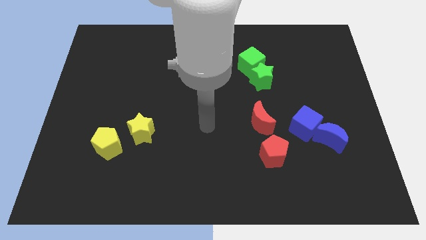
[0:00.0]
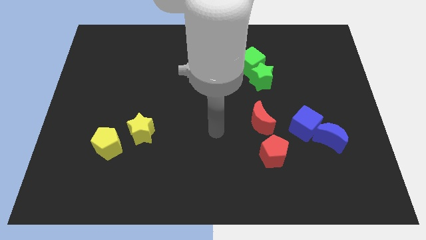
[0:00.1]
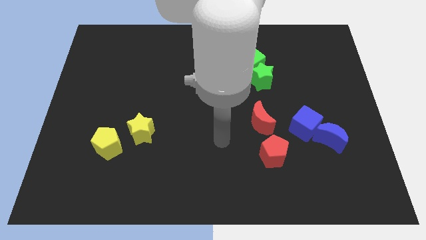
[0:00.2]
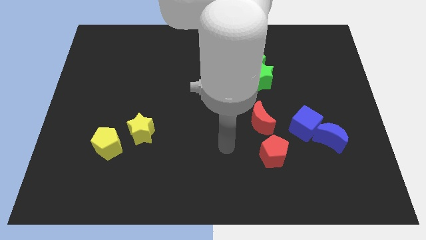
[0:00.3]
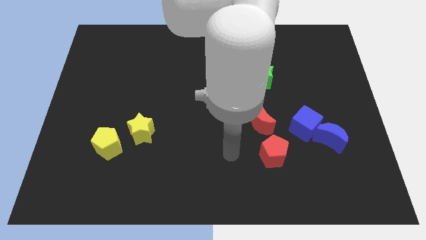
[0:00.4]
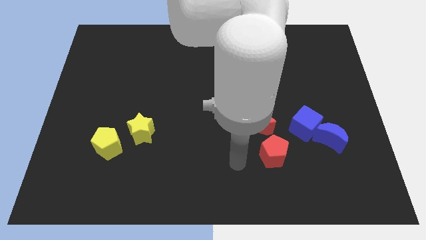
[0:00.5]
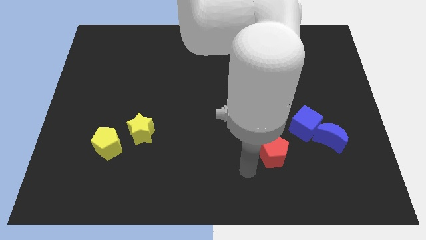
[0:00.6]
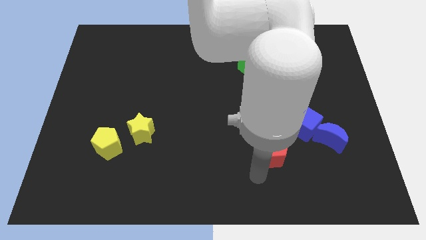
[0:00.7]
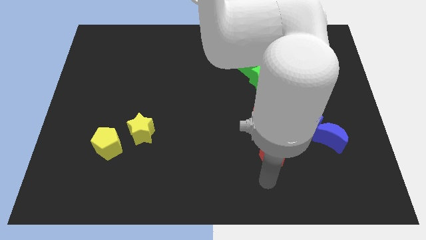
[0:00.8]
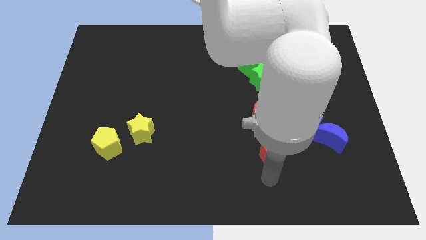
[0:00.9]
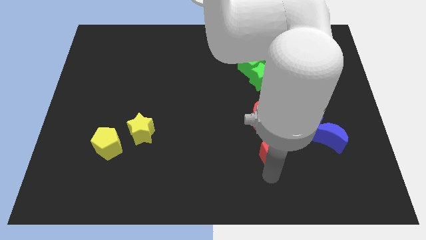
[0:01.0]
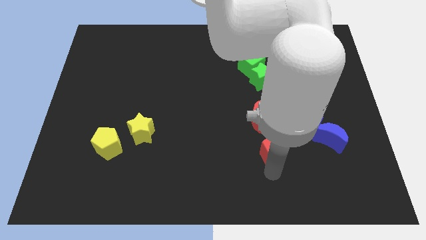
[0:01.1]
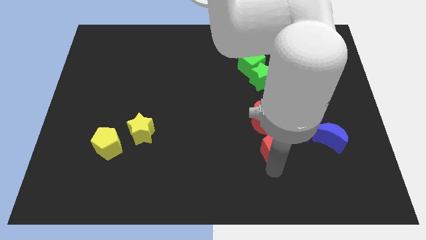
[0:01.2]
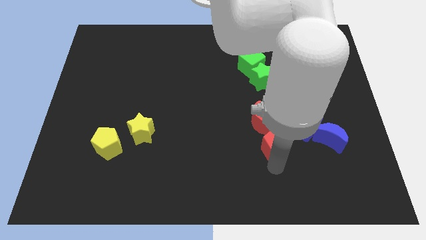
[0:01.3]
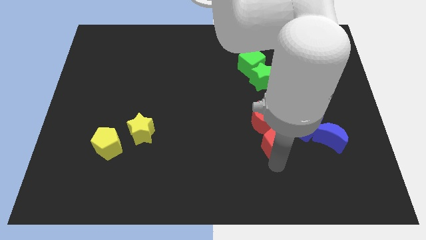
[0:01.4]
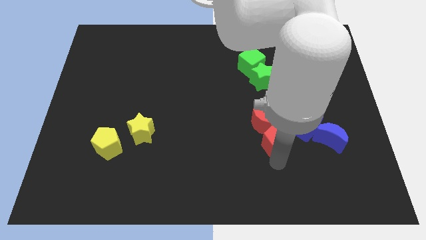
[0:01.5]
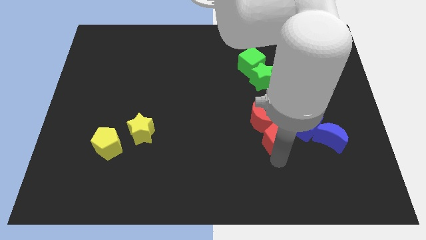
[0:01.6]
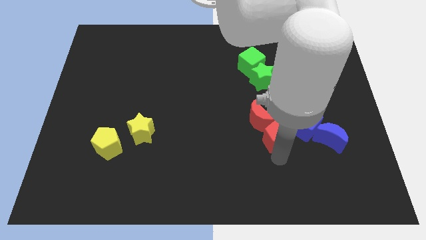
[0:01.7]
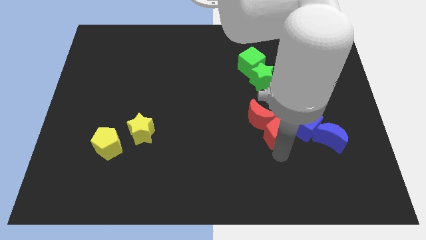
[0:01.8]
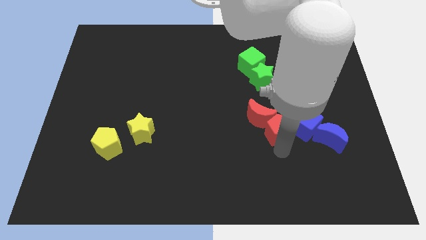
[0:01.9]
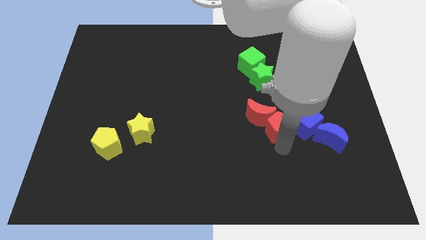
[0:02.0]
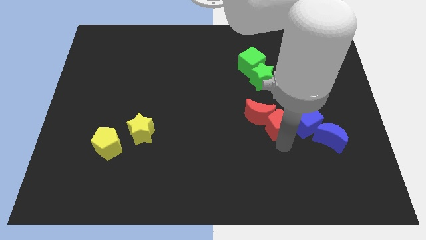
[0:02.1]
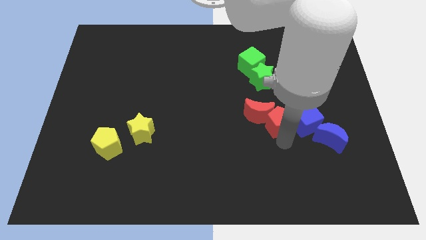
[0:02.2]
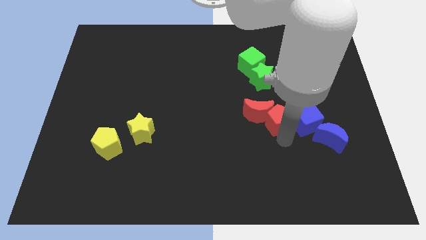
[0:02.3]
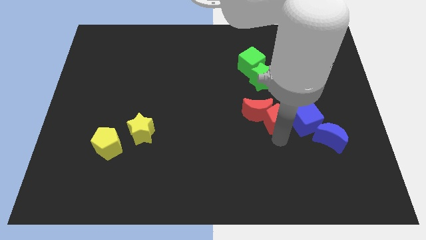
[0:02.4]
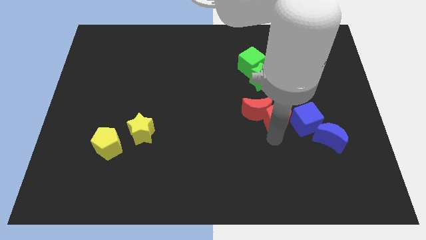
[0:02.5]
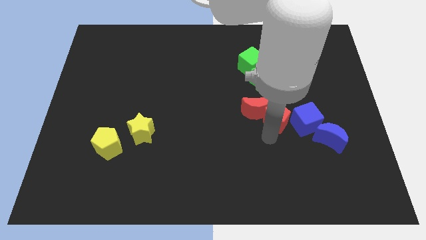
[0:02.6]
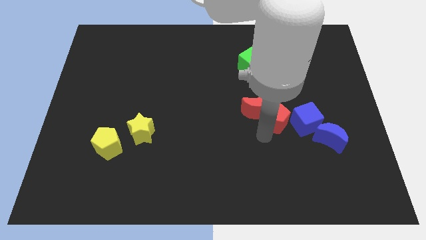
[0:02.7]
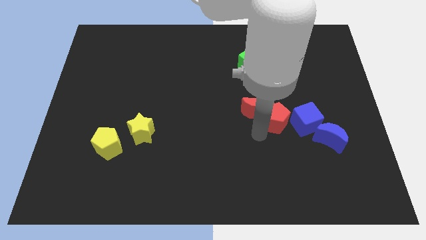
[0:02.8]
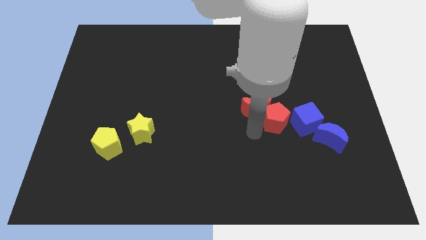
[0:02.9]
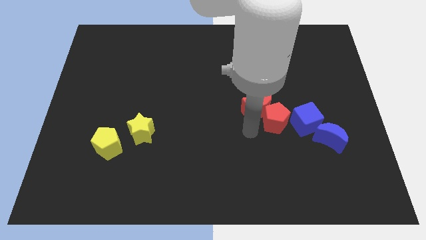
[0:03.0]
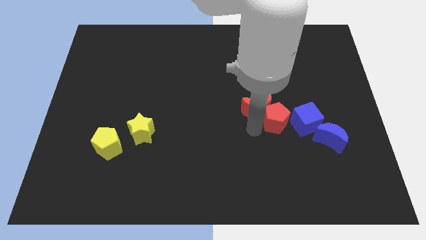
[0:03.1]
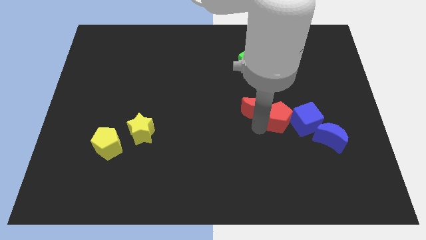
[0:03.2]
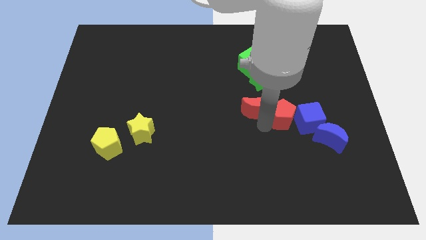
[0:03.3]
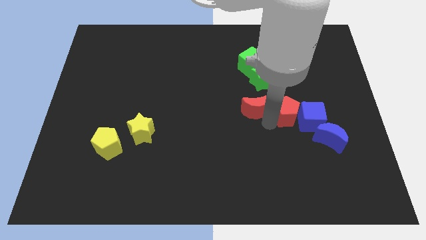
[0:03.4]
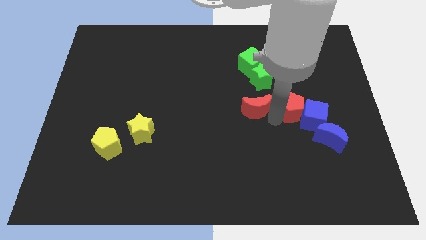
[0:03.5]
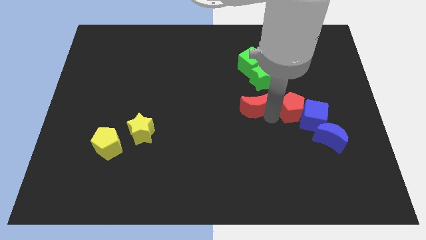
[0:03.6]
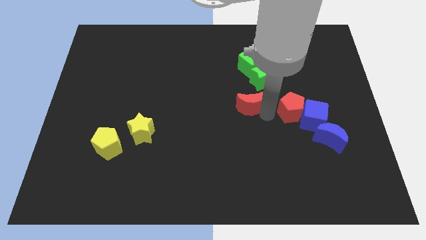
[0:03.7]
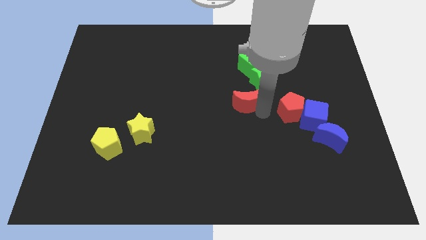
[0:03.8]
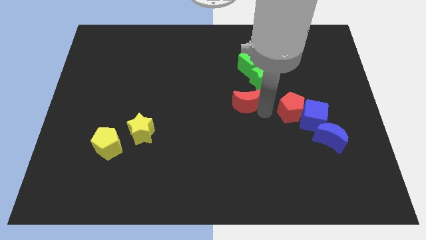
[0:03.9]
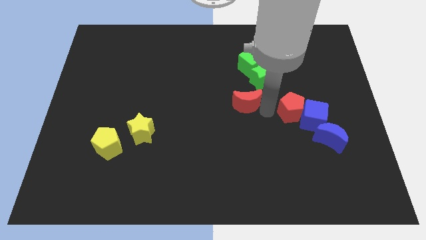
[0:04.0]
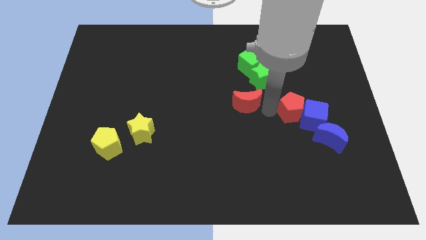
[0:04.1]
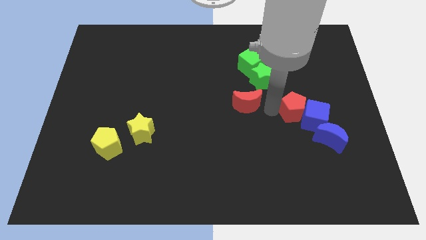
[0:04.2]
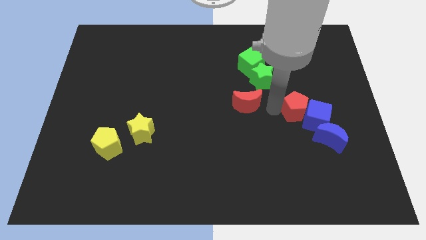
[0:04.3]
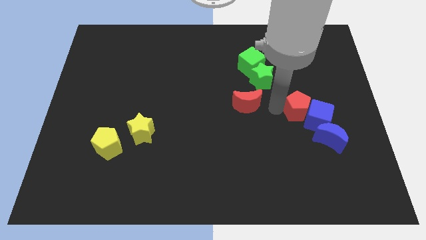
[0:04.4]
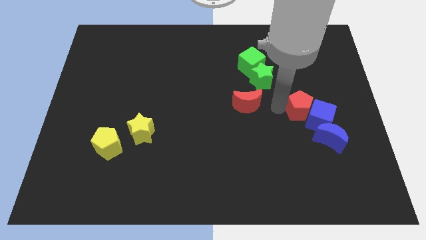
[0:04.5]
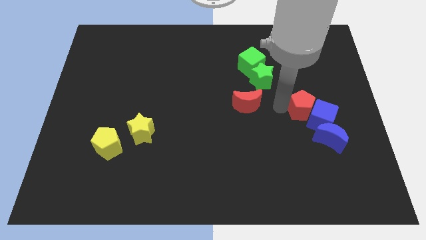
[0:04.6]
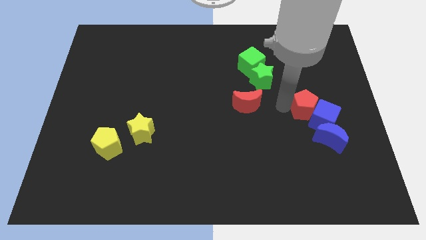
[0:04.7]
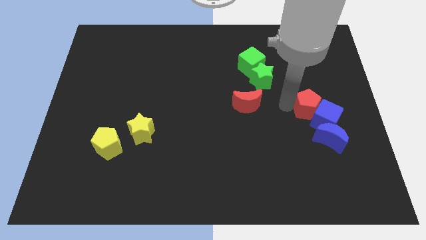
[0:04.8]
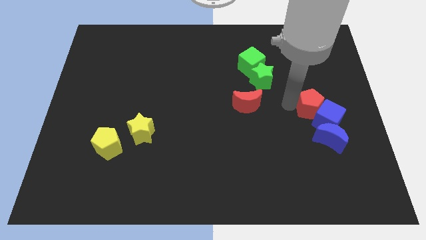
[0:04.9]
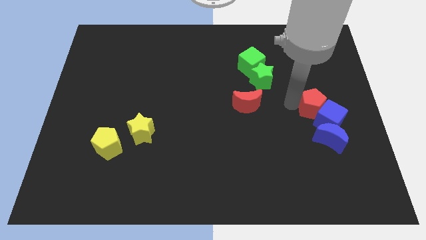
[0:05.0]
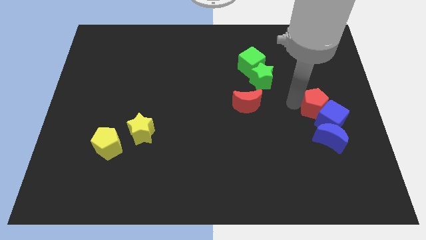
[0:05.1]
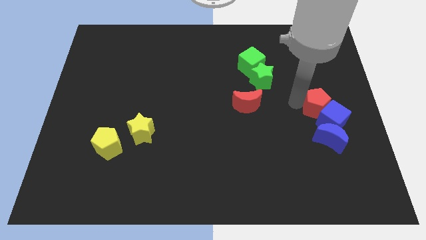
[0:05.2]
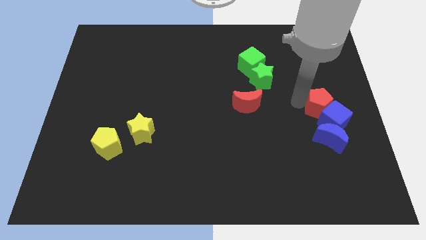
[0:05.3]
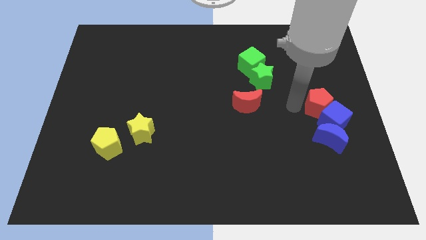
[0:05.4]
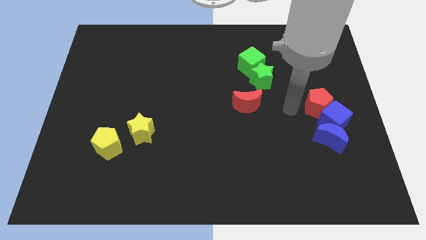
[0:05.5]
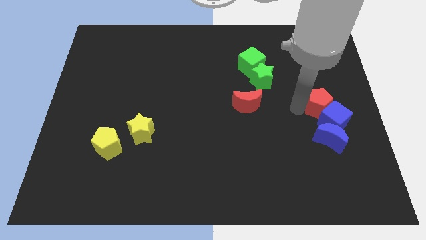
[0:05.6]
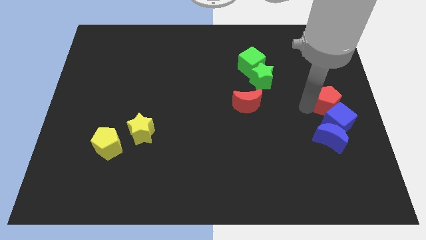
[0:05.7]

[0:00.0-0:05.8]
push the red pentagon to the center right

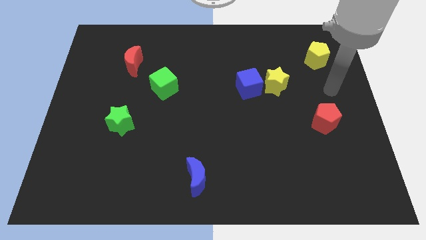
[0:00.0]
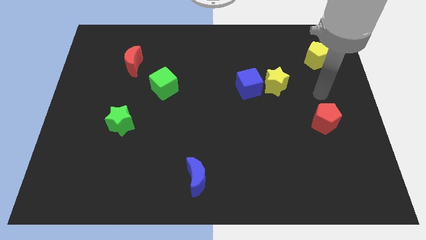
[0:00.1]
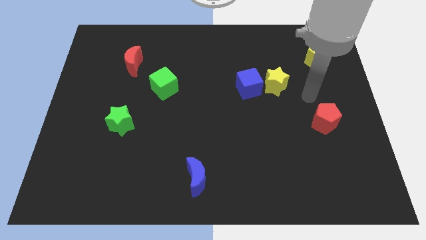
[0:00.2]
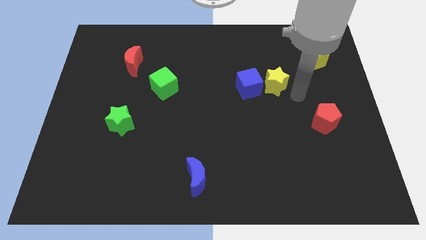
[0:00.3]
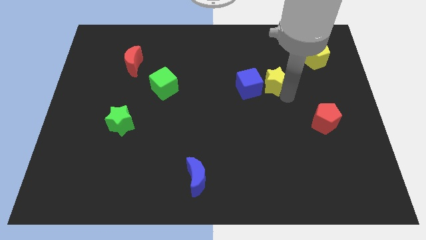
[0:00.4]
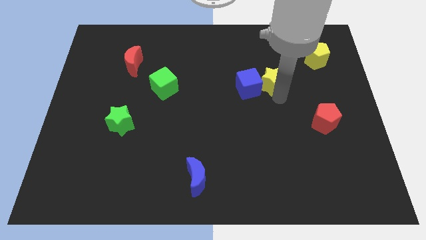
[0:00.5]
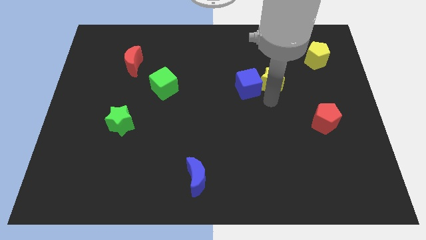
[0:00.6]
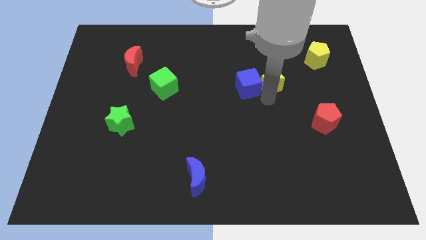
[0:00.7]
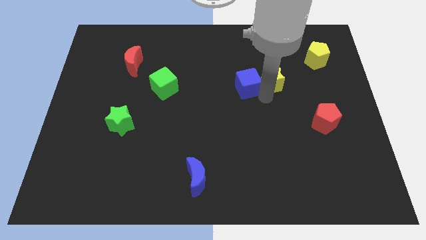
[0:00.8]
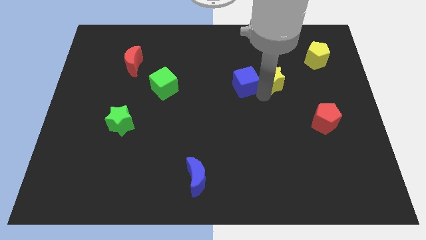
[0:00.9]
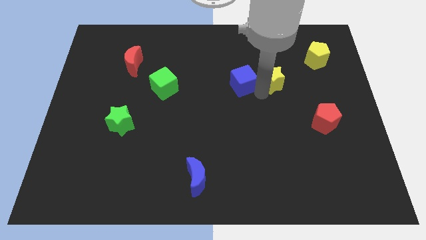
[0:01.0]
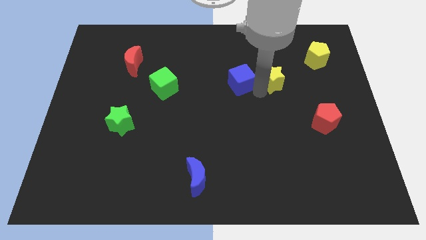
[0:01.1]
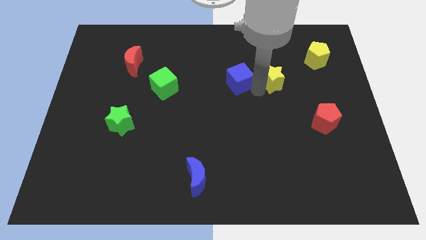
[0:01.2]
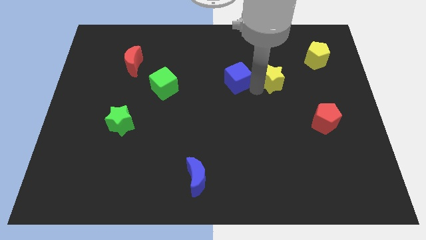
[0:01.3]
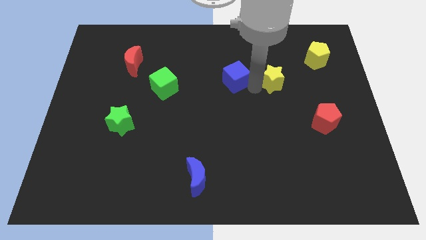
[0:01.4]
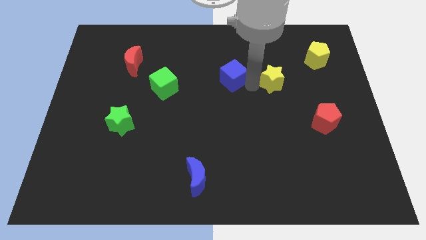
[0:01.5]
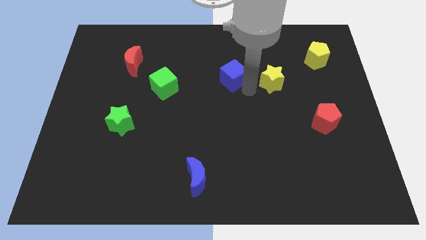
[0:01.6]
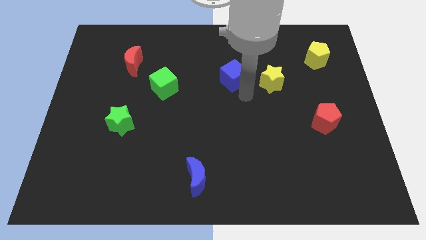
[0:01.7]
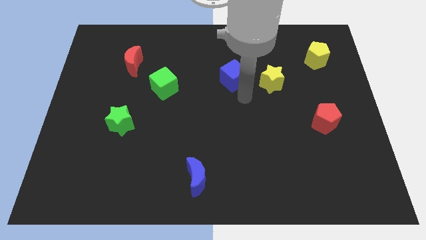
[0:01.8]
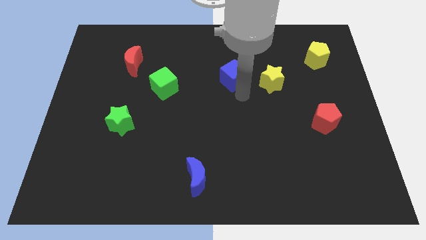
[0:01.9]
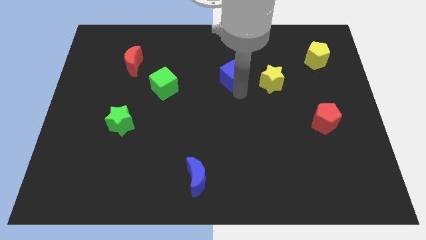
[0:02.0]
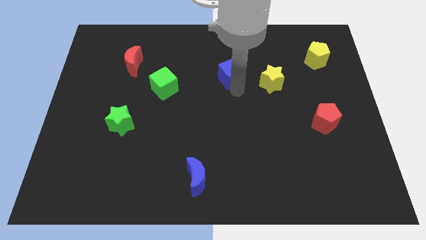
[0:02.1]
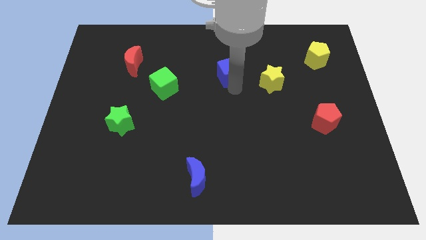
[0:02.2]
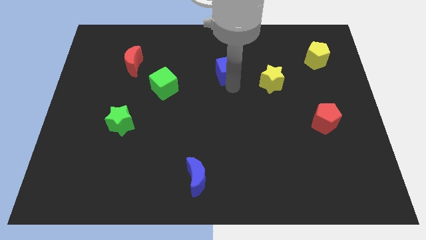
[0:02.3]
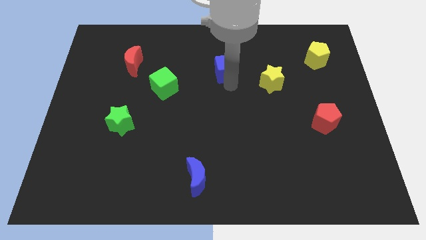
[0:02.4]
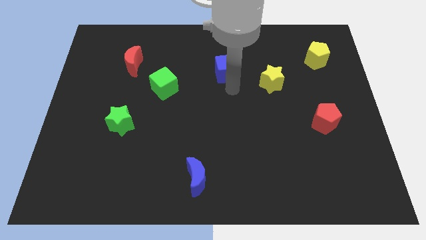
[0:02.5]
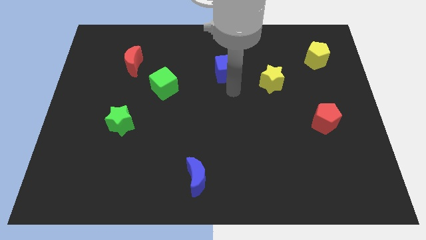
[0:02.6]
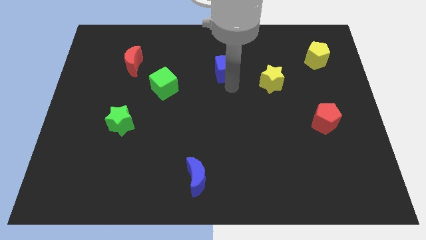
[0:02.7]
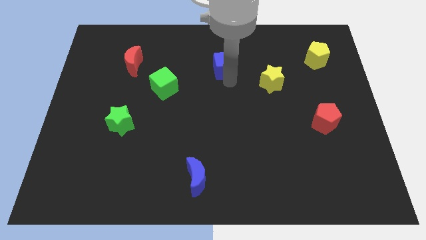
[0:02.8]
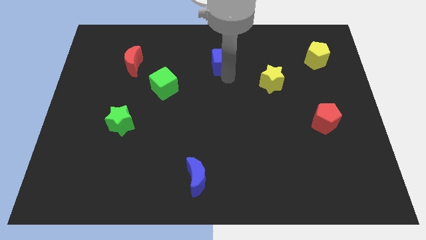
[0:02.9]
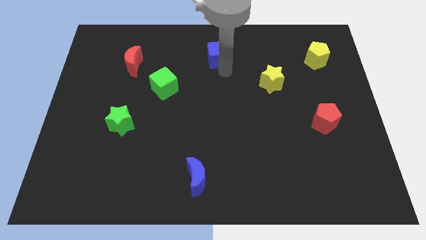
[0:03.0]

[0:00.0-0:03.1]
push the blue cube to the top
